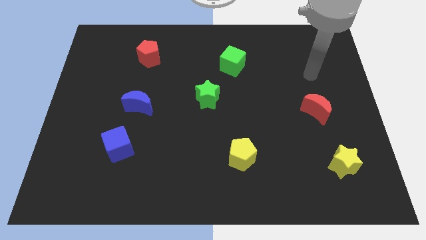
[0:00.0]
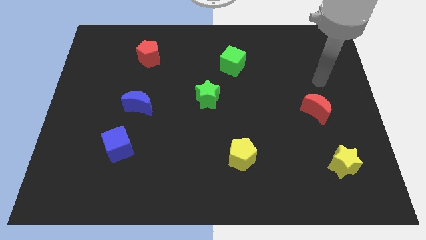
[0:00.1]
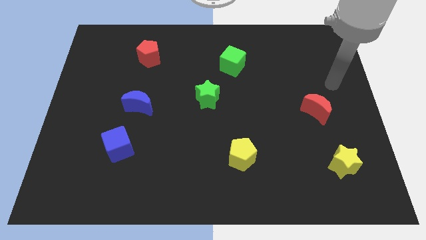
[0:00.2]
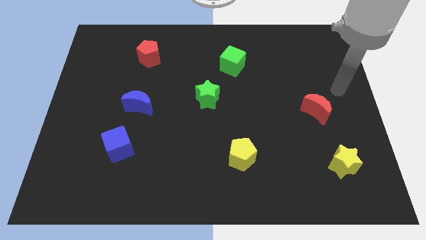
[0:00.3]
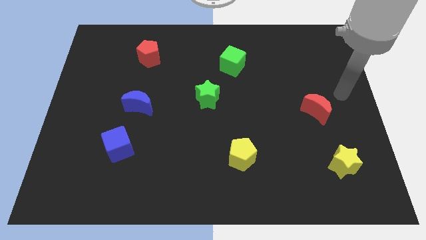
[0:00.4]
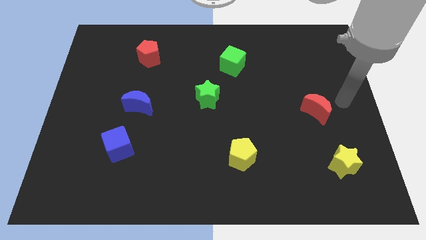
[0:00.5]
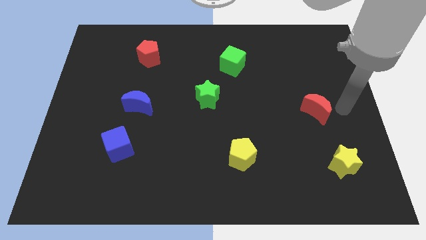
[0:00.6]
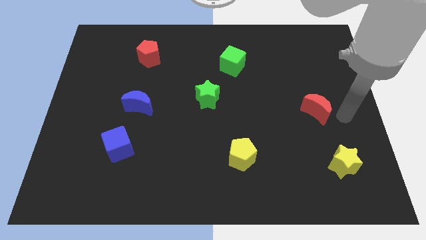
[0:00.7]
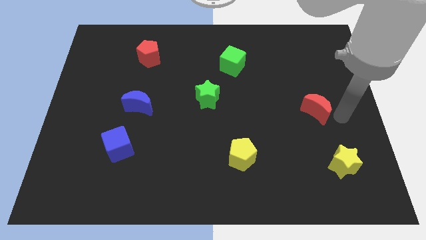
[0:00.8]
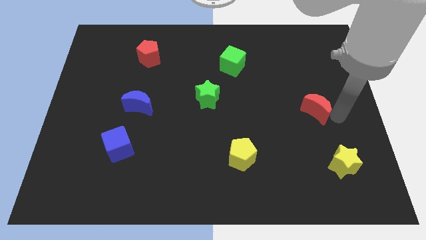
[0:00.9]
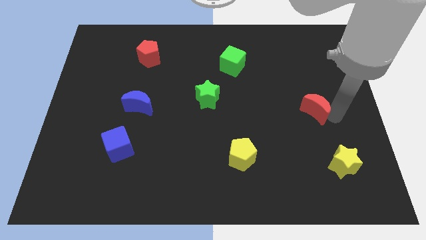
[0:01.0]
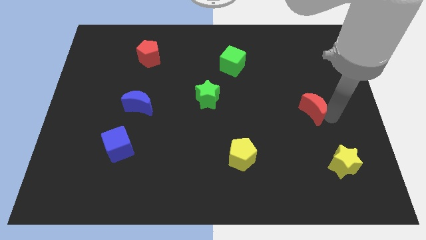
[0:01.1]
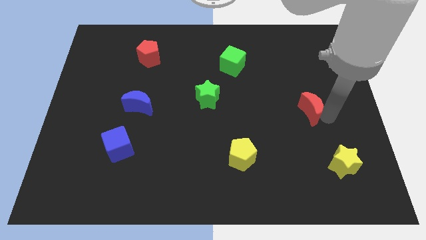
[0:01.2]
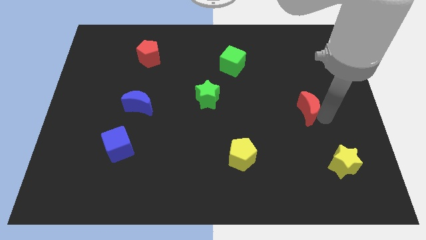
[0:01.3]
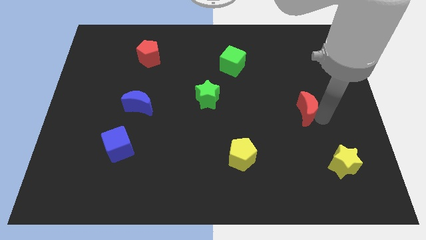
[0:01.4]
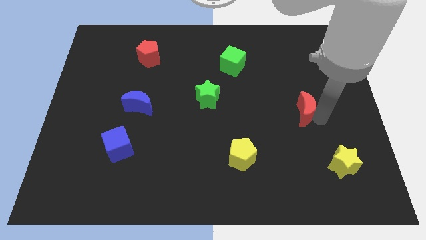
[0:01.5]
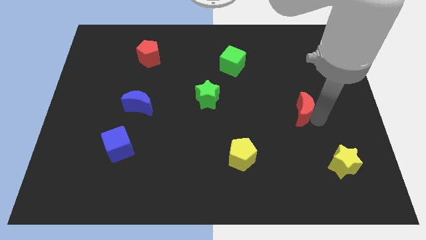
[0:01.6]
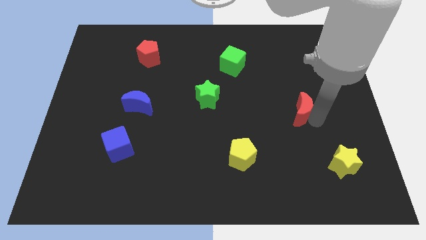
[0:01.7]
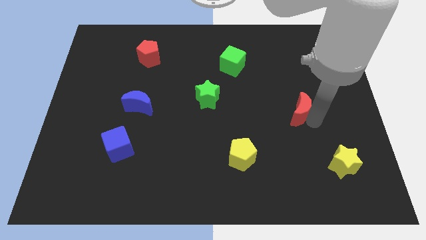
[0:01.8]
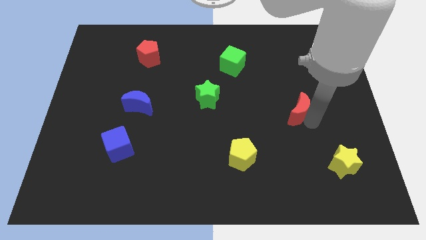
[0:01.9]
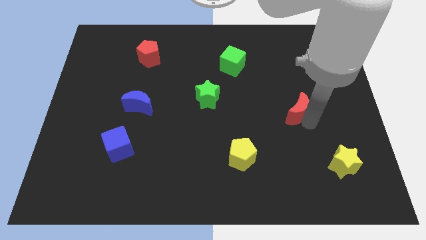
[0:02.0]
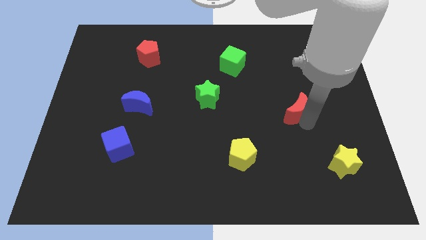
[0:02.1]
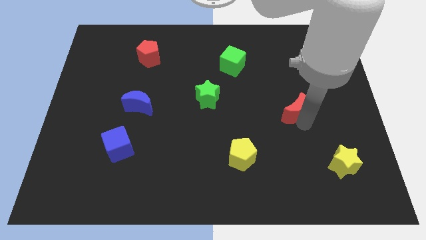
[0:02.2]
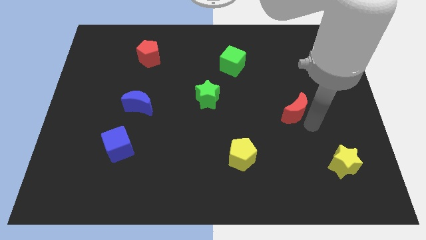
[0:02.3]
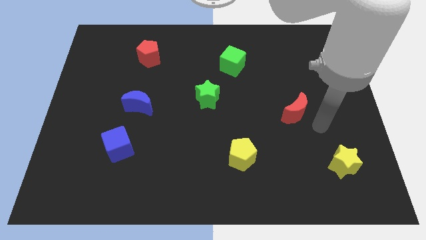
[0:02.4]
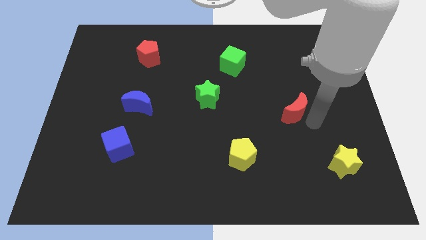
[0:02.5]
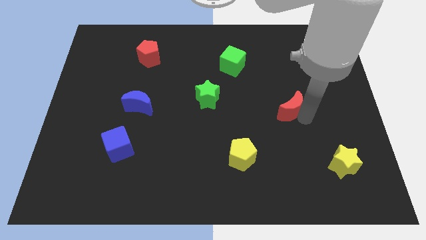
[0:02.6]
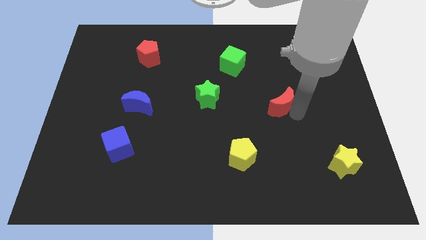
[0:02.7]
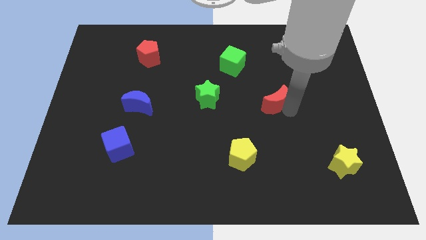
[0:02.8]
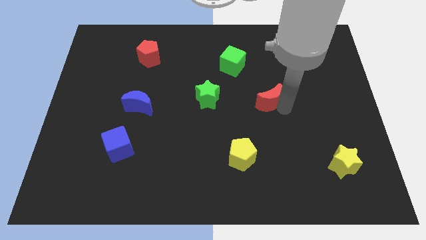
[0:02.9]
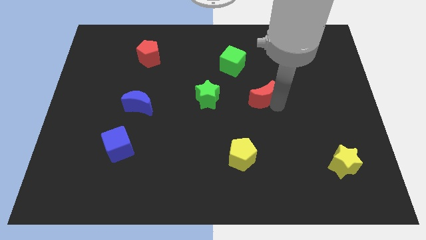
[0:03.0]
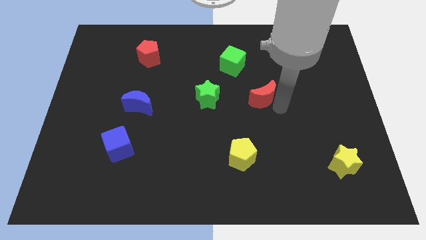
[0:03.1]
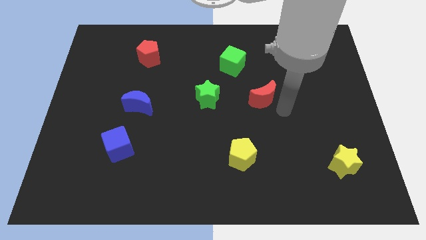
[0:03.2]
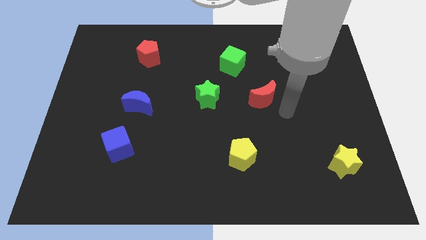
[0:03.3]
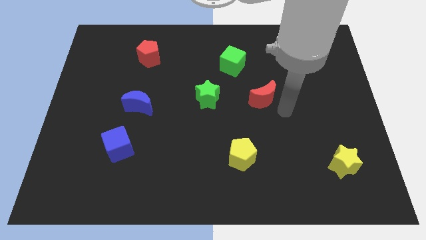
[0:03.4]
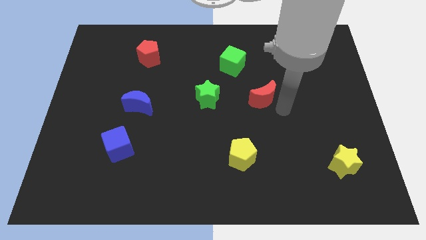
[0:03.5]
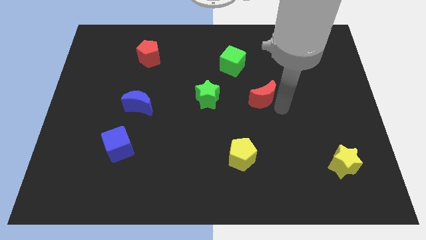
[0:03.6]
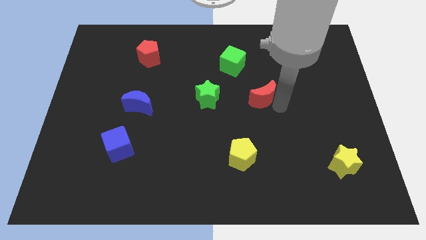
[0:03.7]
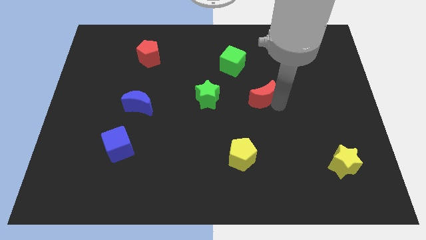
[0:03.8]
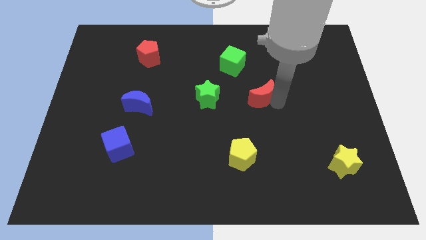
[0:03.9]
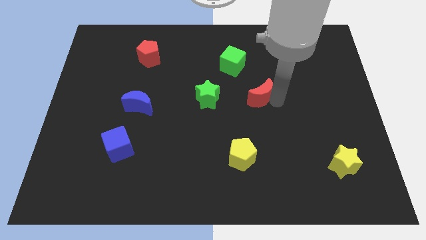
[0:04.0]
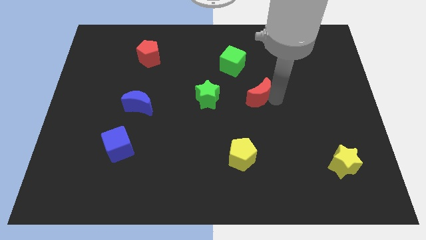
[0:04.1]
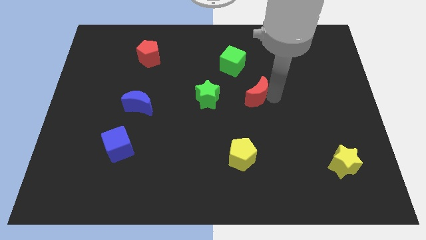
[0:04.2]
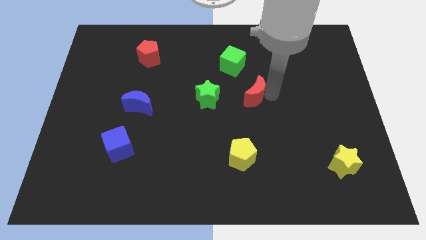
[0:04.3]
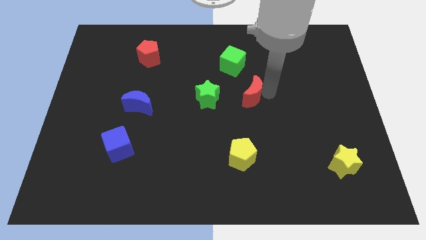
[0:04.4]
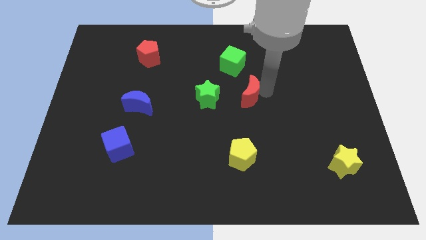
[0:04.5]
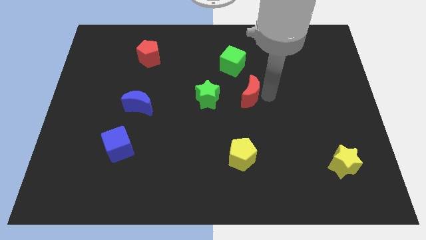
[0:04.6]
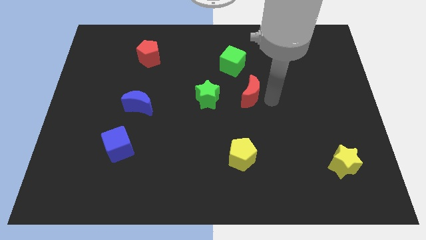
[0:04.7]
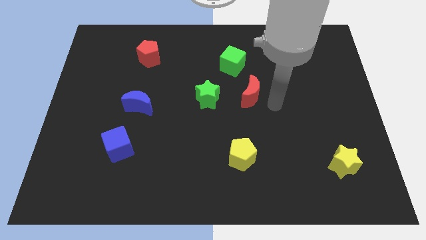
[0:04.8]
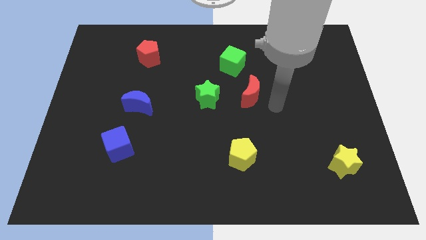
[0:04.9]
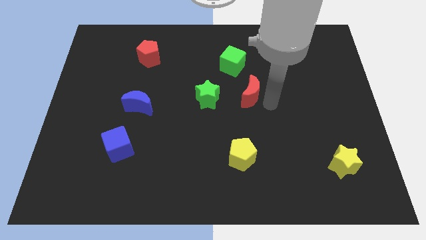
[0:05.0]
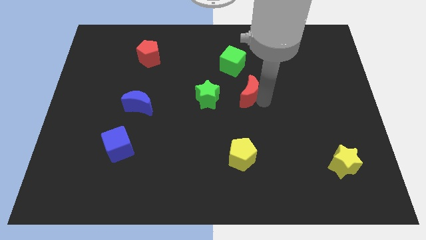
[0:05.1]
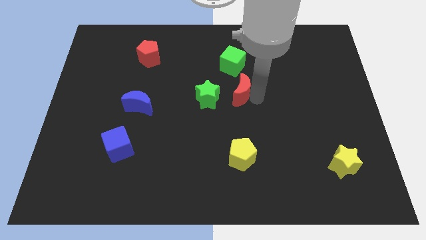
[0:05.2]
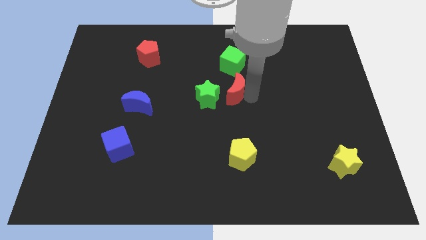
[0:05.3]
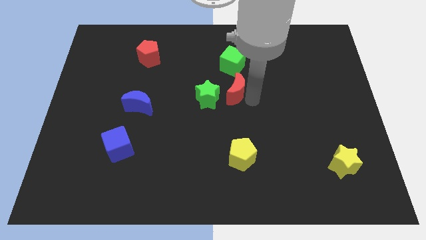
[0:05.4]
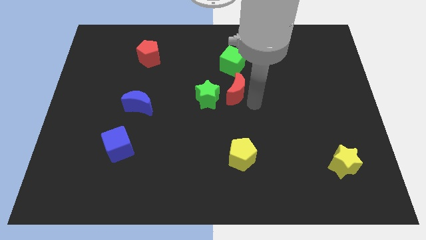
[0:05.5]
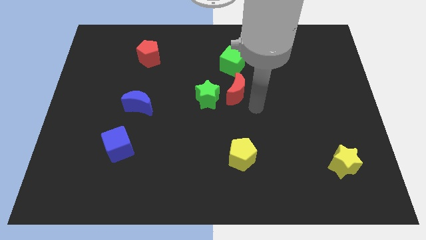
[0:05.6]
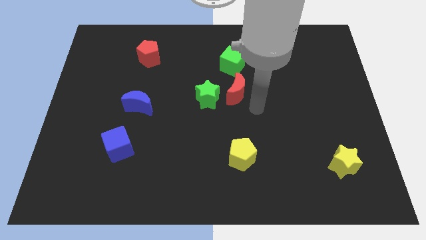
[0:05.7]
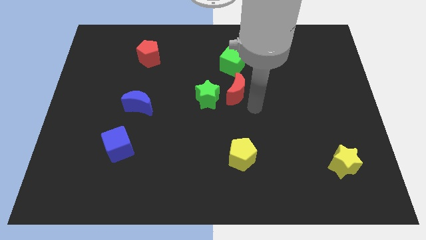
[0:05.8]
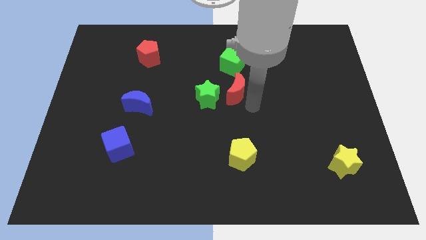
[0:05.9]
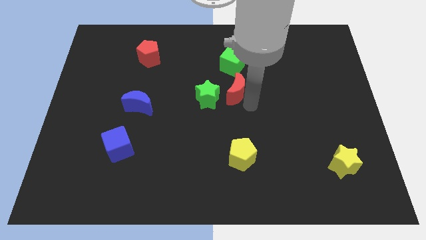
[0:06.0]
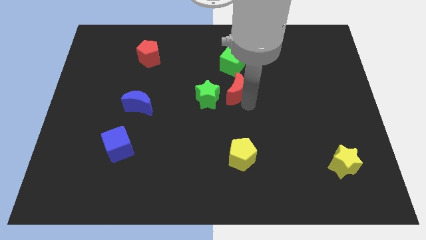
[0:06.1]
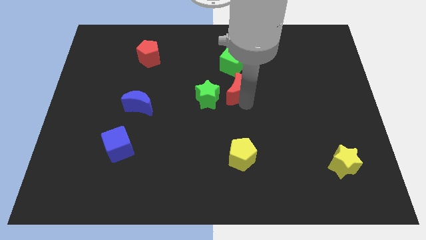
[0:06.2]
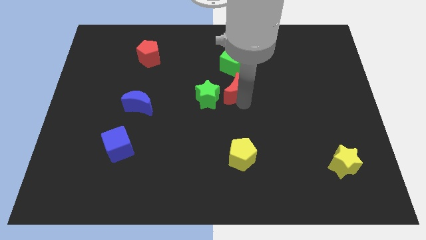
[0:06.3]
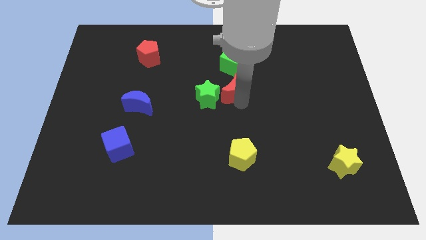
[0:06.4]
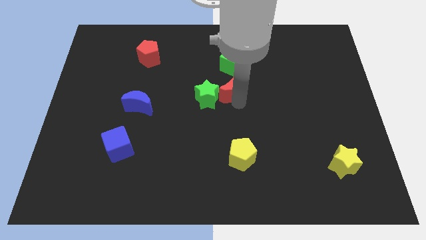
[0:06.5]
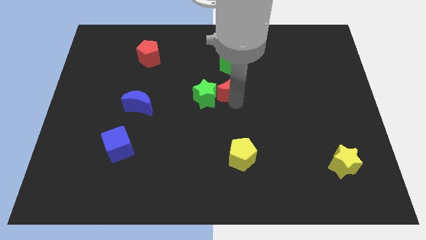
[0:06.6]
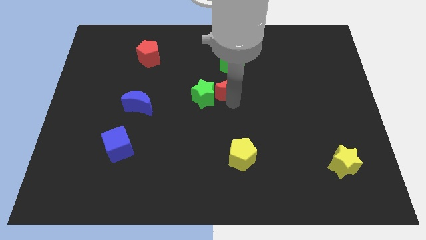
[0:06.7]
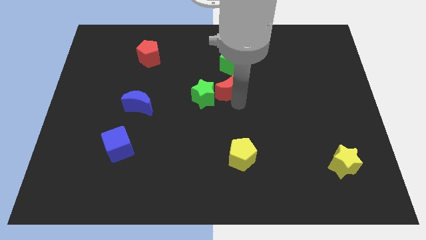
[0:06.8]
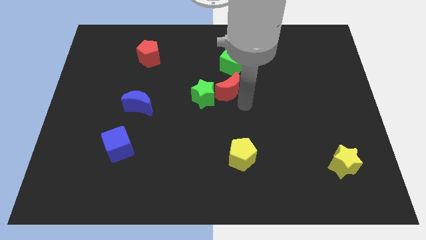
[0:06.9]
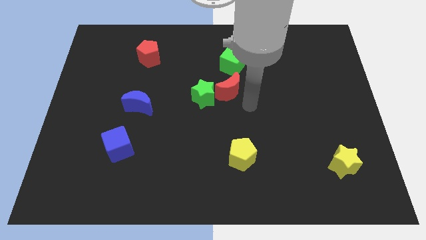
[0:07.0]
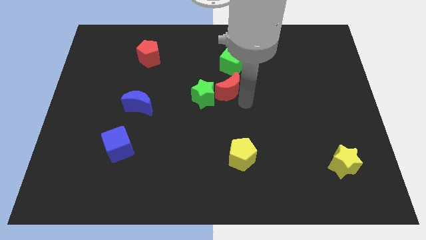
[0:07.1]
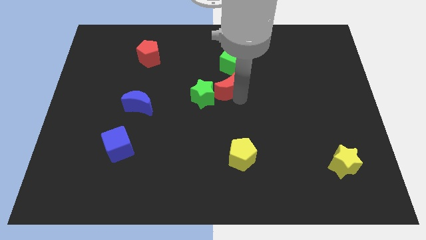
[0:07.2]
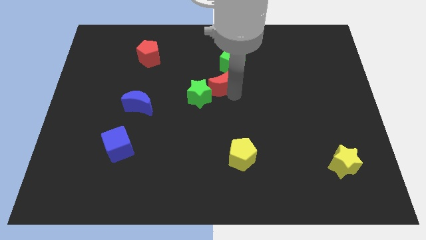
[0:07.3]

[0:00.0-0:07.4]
put the red moon to the bottom left side of the green cube
